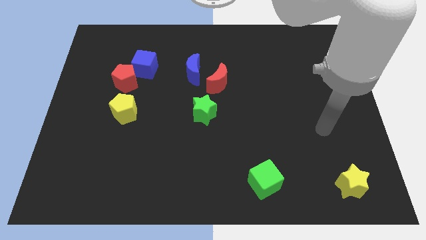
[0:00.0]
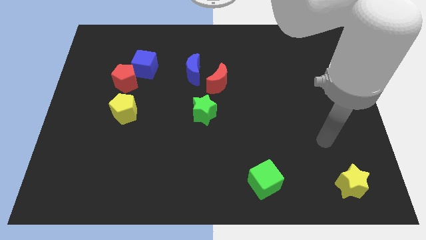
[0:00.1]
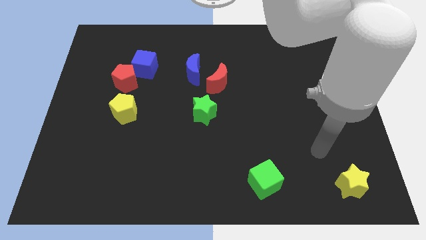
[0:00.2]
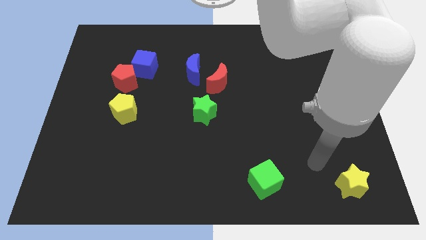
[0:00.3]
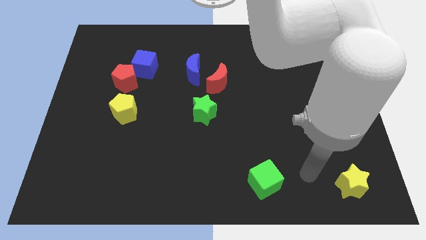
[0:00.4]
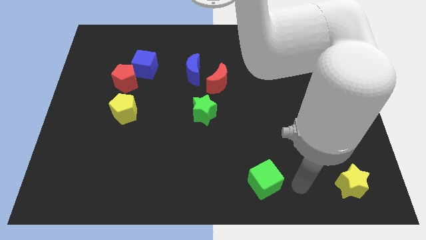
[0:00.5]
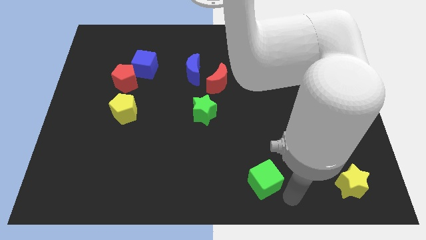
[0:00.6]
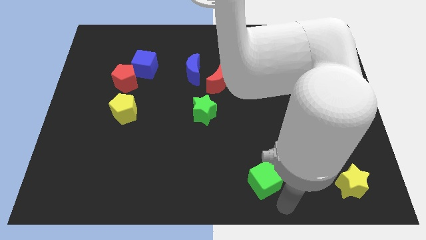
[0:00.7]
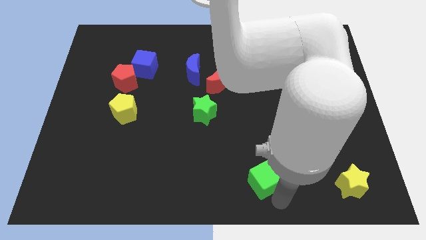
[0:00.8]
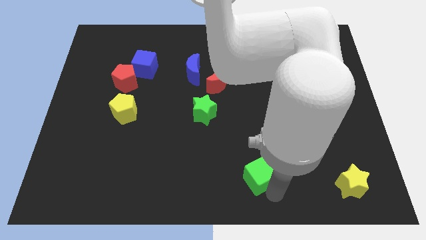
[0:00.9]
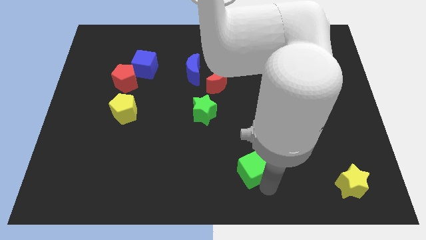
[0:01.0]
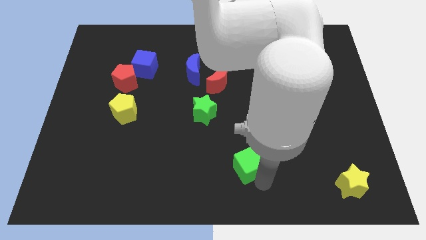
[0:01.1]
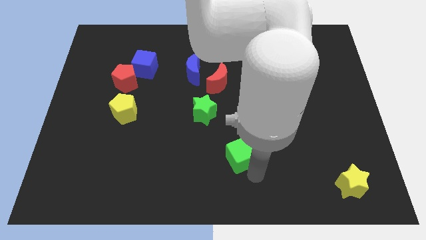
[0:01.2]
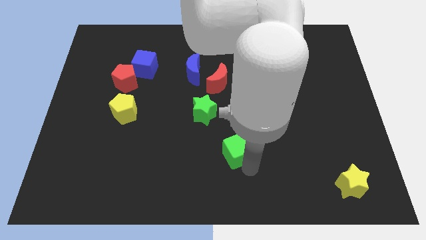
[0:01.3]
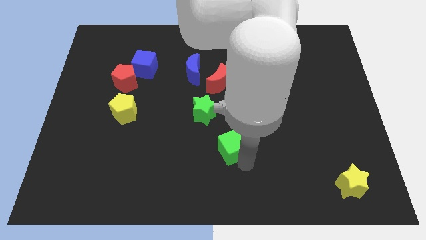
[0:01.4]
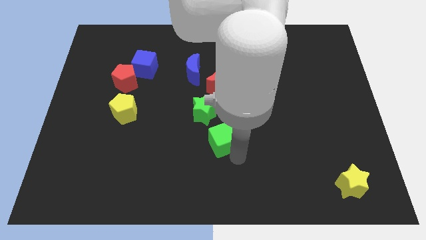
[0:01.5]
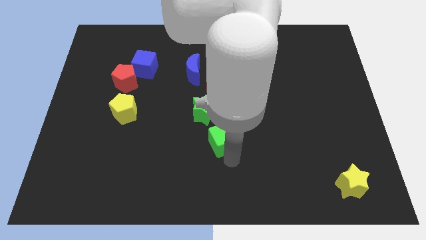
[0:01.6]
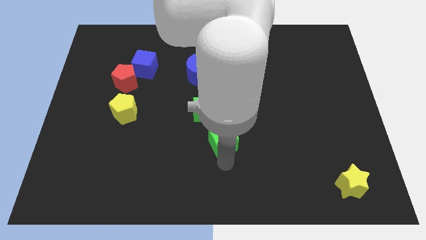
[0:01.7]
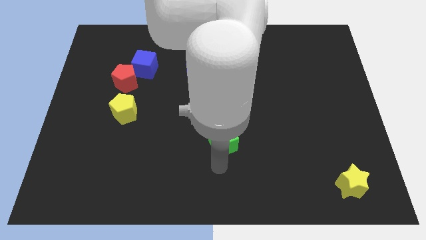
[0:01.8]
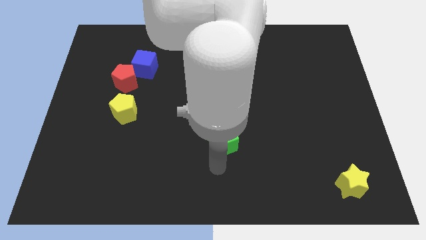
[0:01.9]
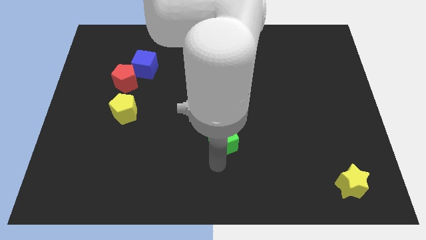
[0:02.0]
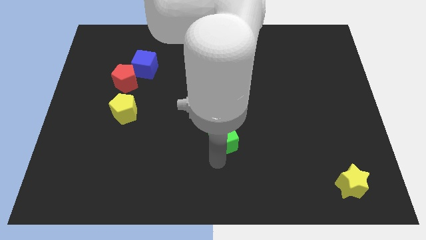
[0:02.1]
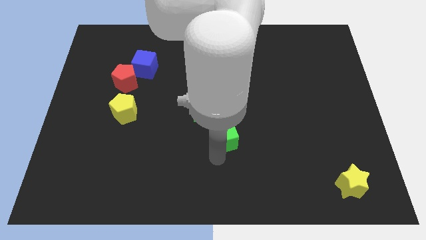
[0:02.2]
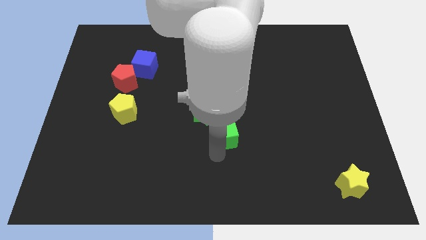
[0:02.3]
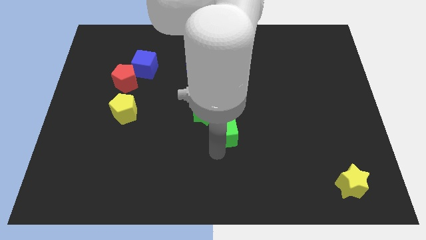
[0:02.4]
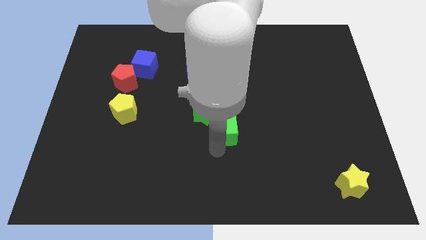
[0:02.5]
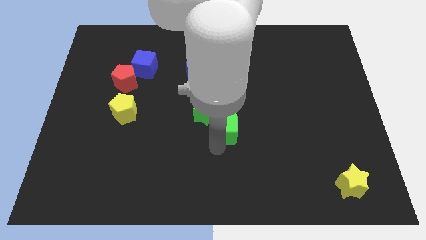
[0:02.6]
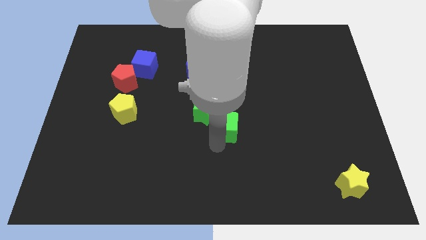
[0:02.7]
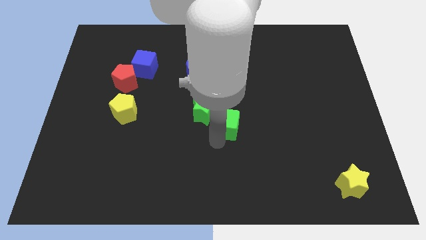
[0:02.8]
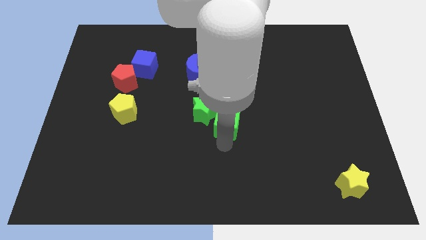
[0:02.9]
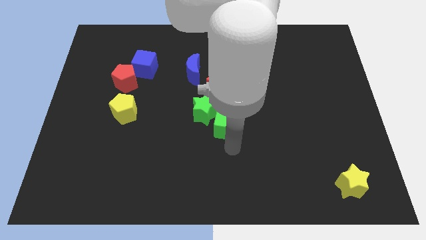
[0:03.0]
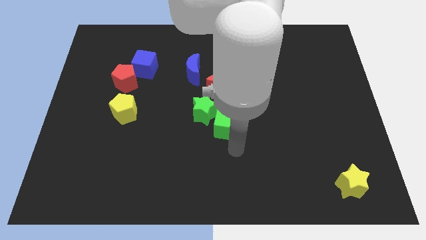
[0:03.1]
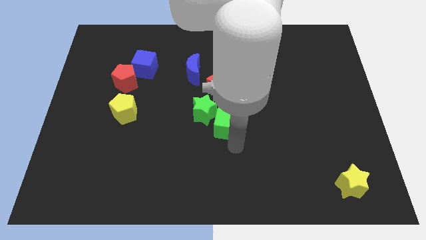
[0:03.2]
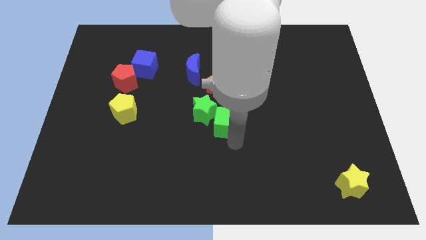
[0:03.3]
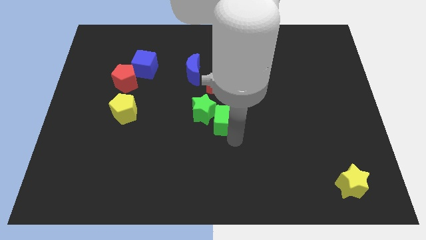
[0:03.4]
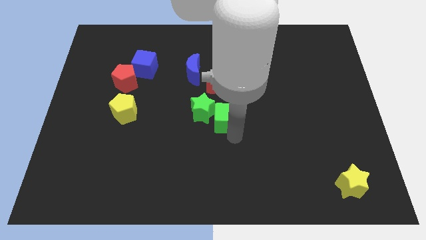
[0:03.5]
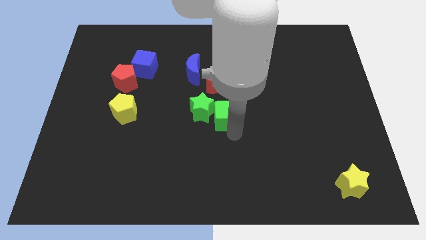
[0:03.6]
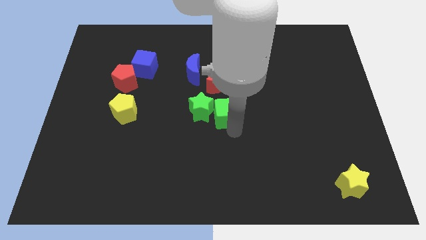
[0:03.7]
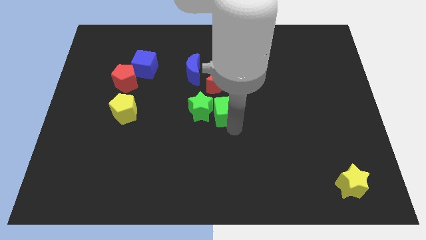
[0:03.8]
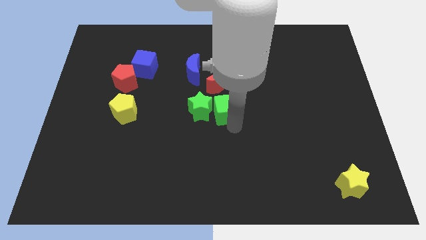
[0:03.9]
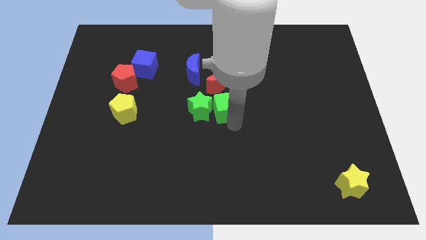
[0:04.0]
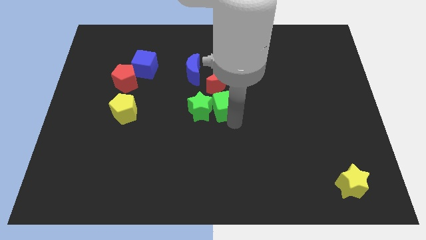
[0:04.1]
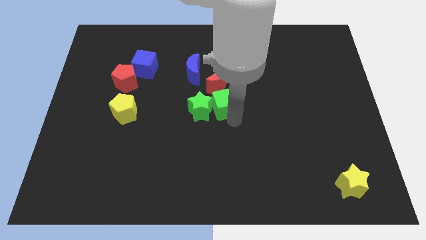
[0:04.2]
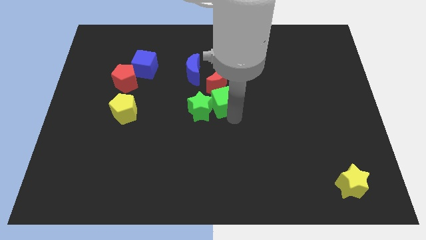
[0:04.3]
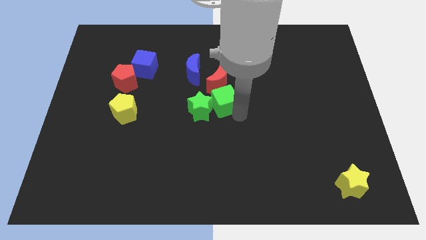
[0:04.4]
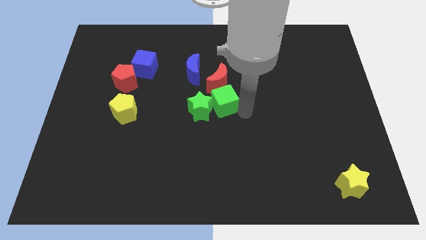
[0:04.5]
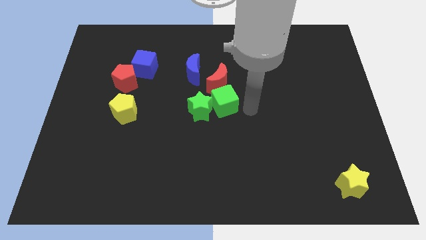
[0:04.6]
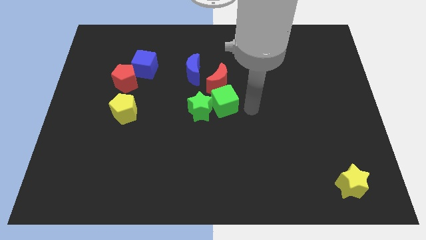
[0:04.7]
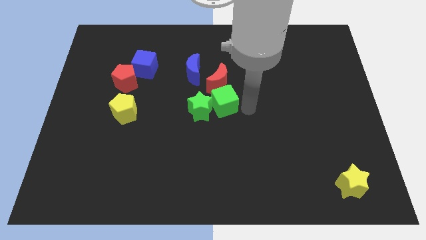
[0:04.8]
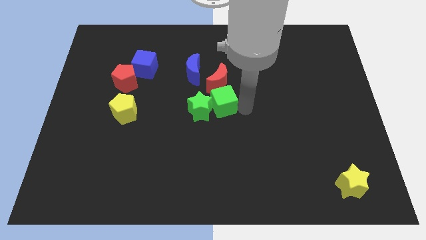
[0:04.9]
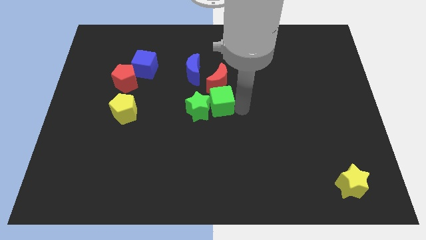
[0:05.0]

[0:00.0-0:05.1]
slide the green cube to the bottom left of the red moon

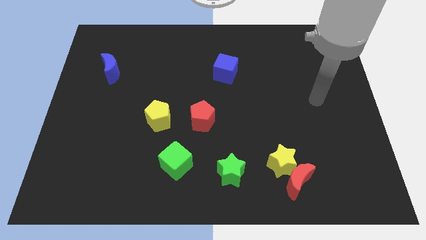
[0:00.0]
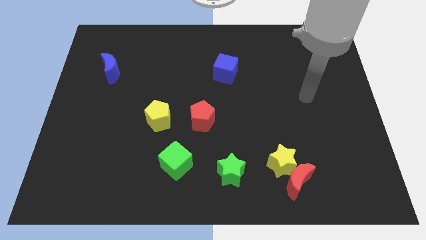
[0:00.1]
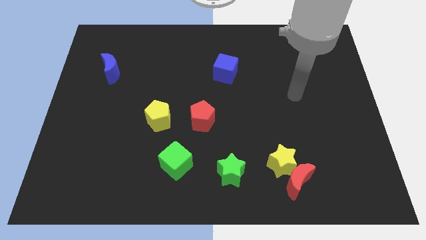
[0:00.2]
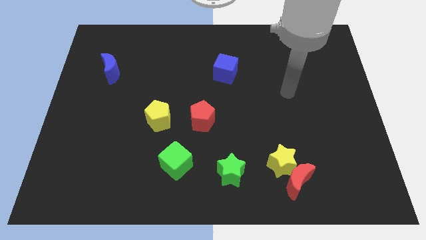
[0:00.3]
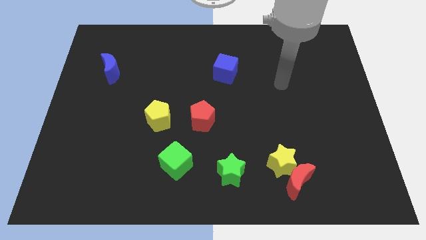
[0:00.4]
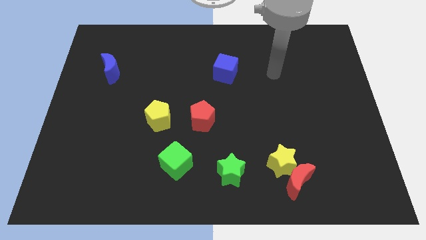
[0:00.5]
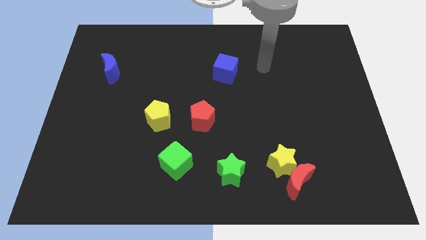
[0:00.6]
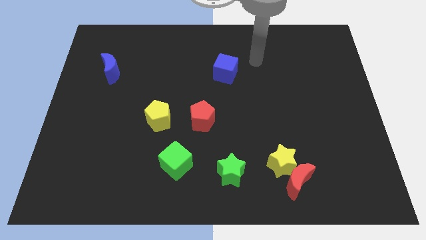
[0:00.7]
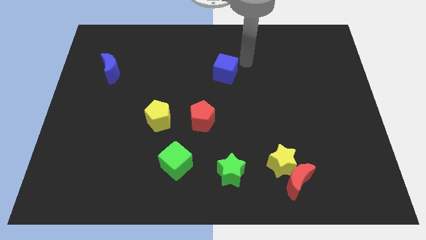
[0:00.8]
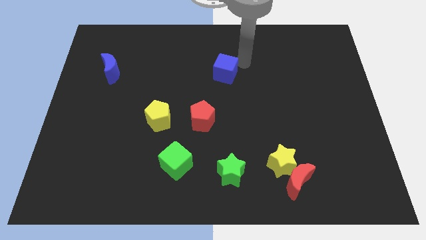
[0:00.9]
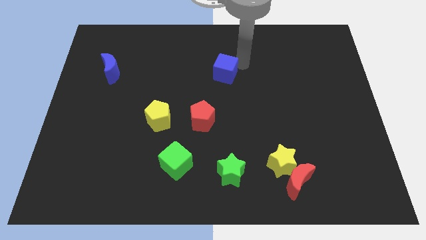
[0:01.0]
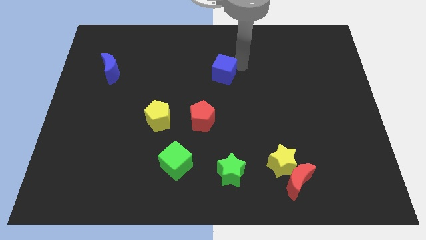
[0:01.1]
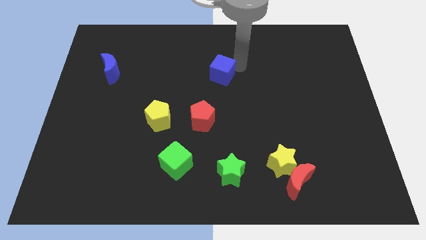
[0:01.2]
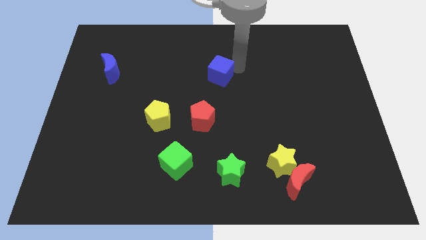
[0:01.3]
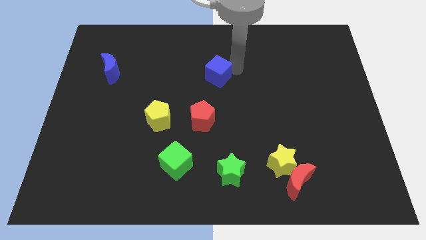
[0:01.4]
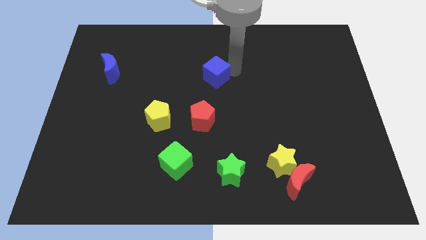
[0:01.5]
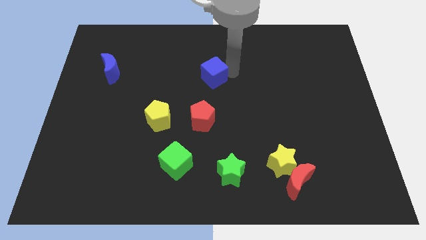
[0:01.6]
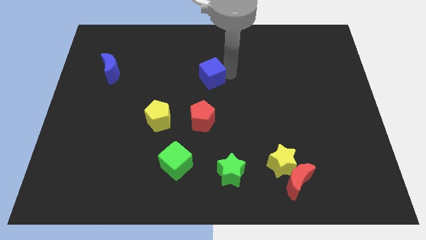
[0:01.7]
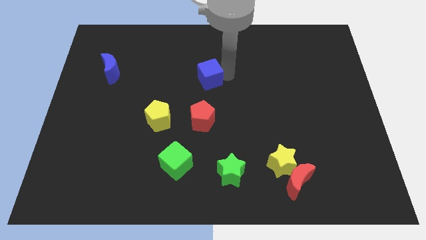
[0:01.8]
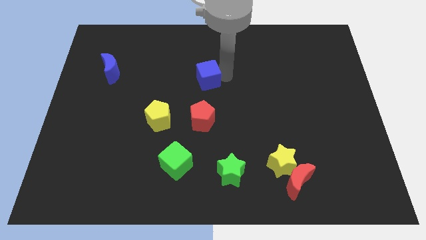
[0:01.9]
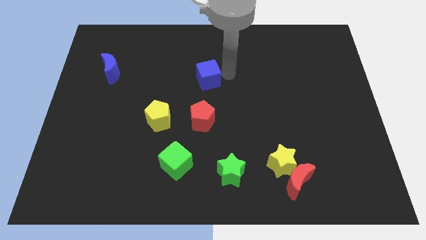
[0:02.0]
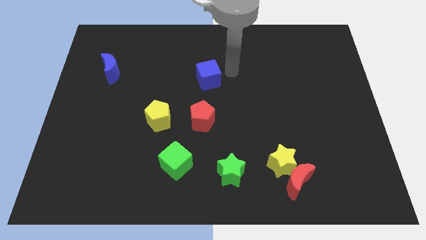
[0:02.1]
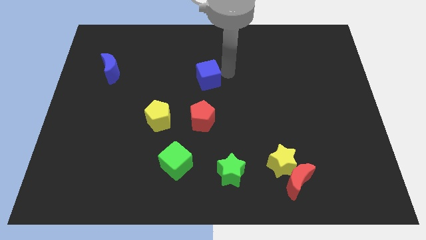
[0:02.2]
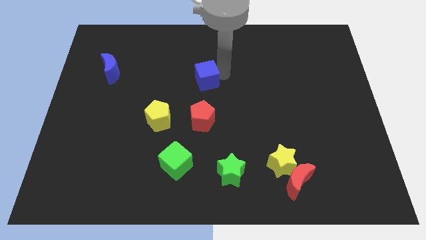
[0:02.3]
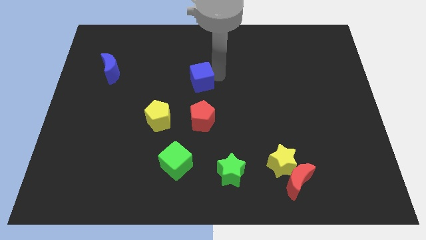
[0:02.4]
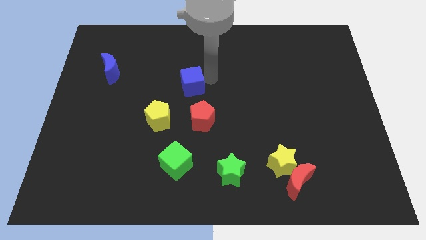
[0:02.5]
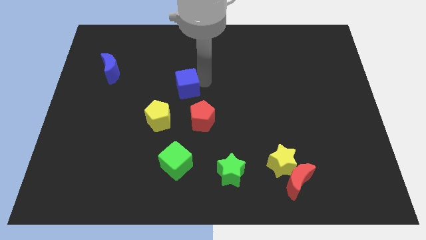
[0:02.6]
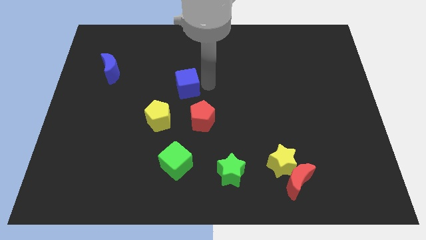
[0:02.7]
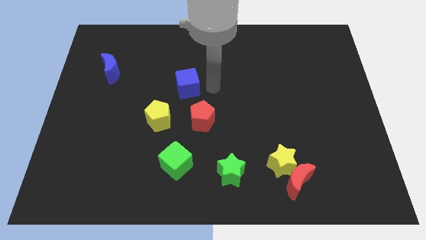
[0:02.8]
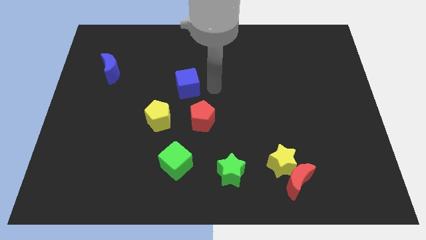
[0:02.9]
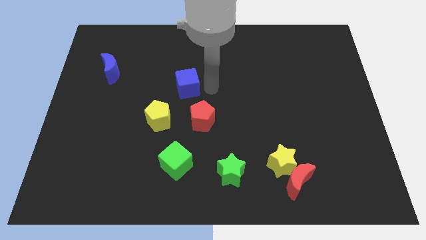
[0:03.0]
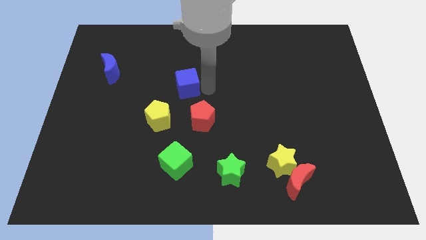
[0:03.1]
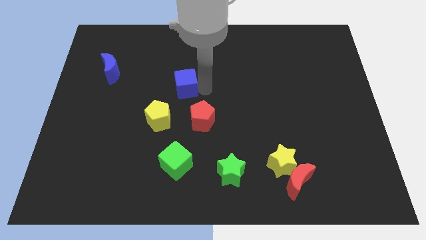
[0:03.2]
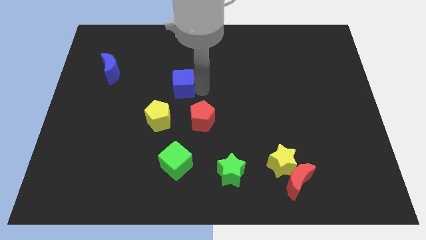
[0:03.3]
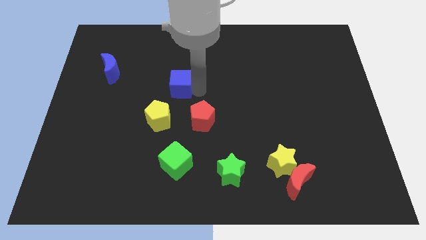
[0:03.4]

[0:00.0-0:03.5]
put the blue cube above the yellow pentagon

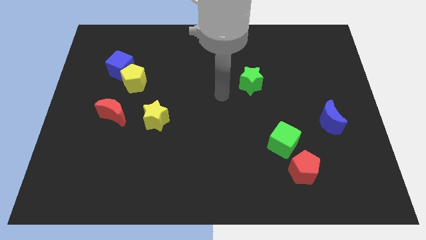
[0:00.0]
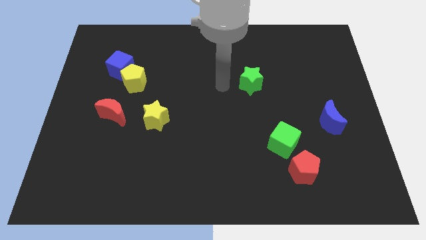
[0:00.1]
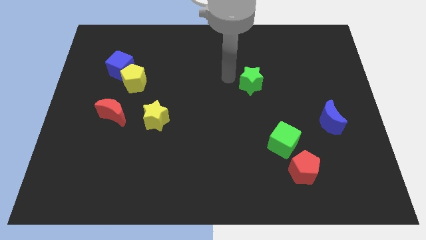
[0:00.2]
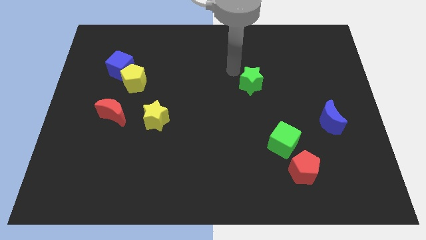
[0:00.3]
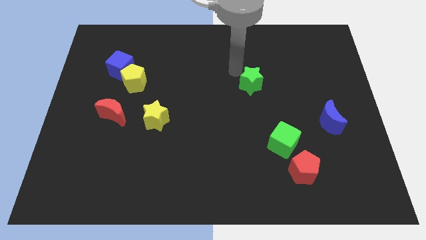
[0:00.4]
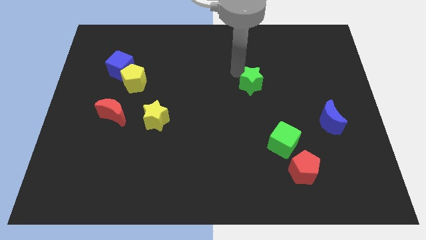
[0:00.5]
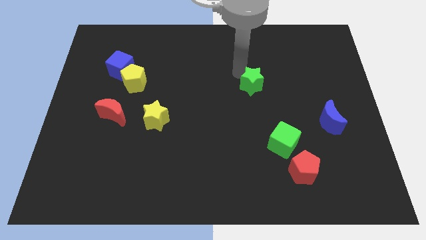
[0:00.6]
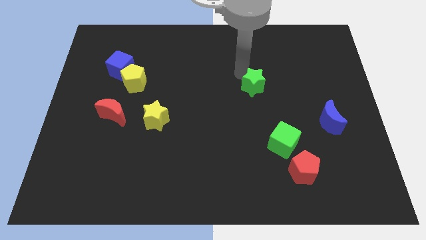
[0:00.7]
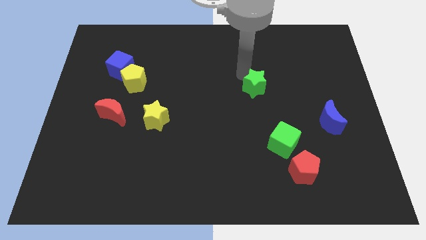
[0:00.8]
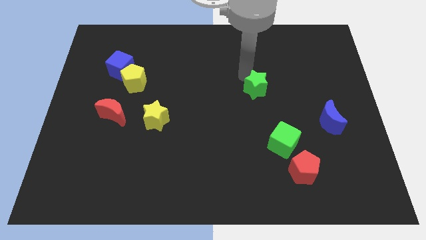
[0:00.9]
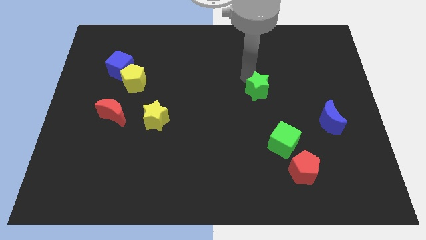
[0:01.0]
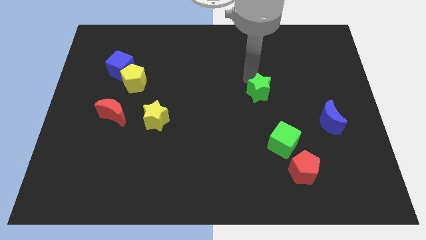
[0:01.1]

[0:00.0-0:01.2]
move the green star to the top side of the green cube
